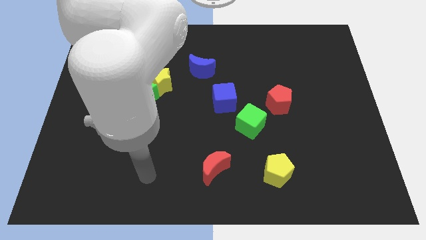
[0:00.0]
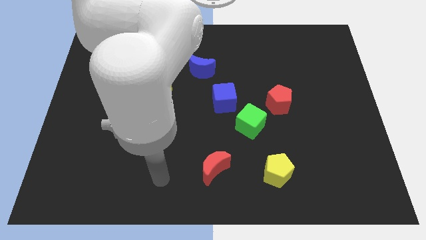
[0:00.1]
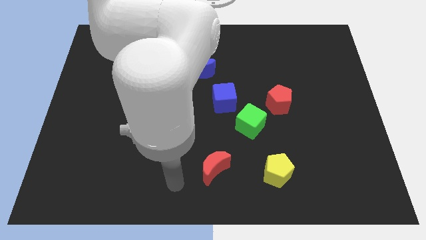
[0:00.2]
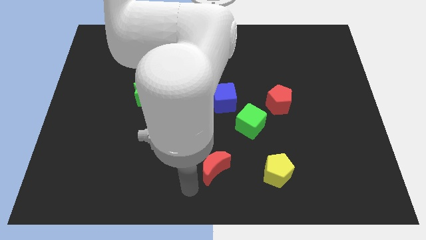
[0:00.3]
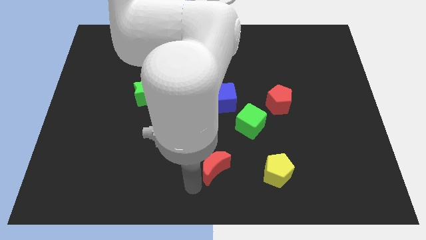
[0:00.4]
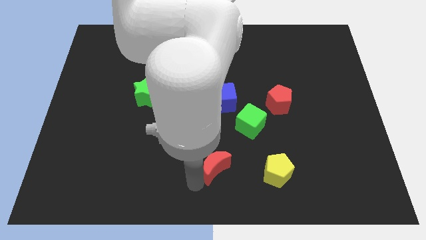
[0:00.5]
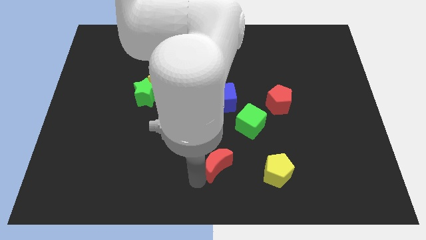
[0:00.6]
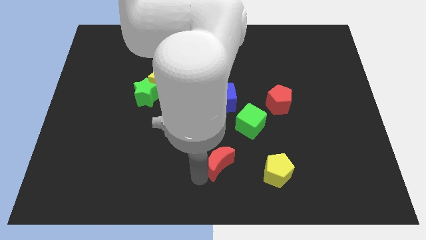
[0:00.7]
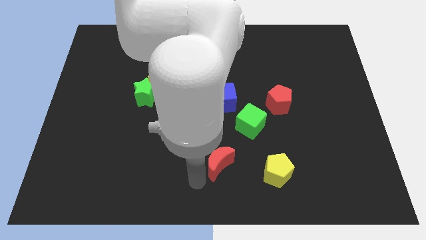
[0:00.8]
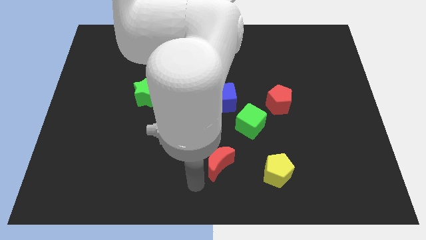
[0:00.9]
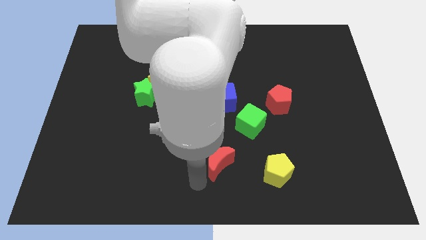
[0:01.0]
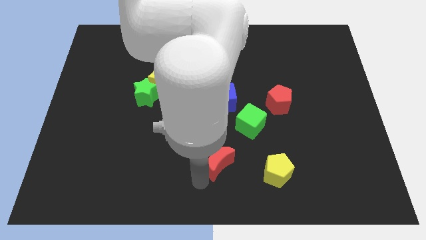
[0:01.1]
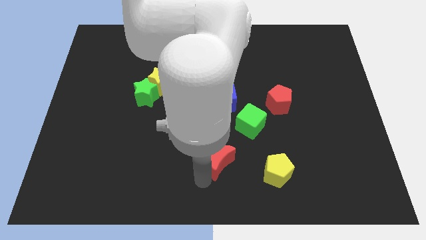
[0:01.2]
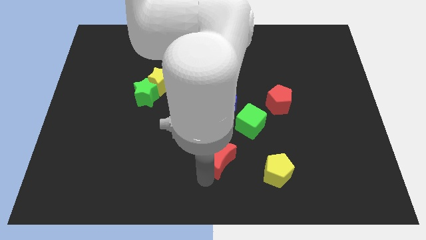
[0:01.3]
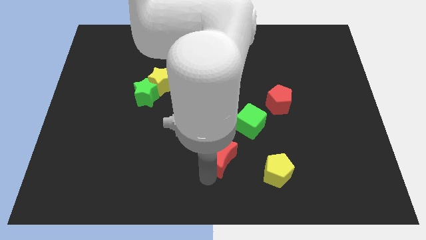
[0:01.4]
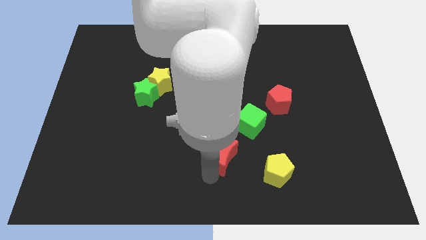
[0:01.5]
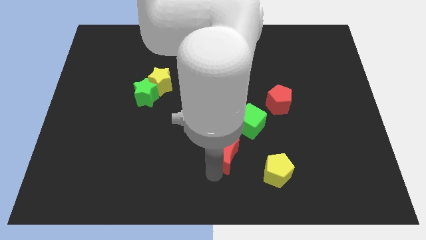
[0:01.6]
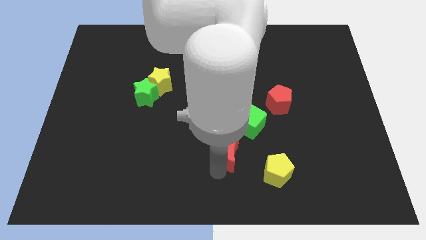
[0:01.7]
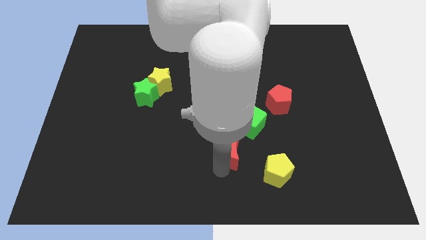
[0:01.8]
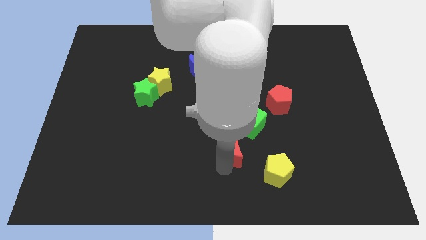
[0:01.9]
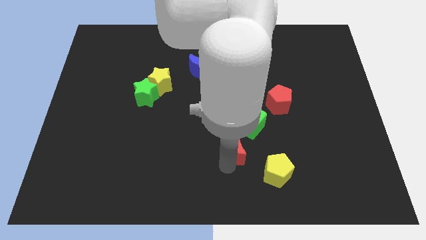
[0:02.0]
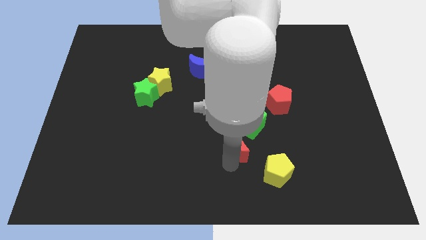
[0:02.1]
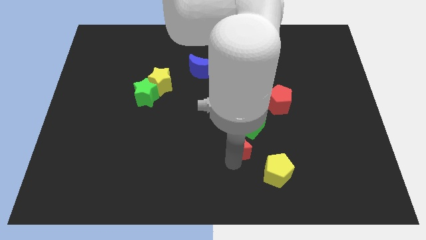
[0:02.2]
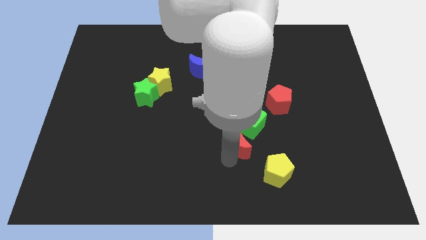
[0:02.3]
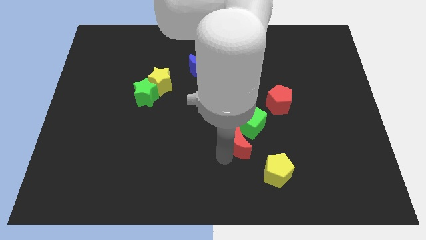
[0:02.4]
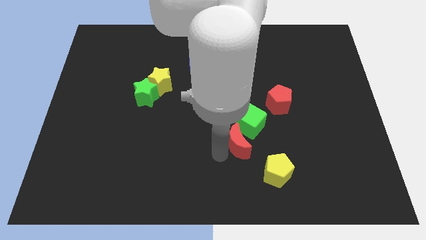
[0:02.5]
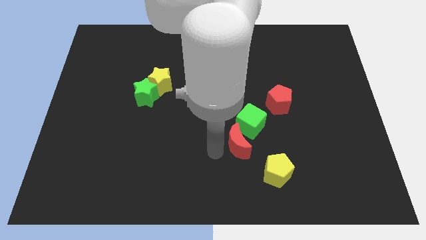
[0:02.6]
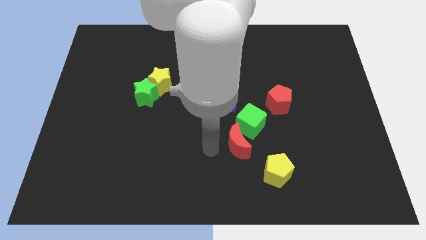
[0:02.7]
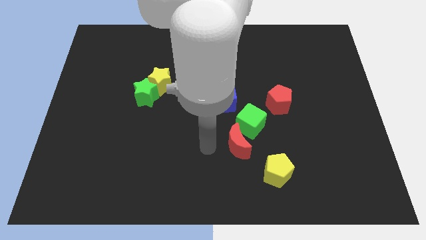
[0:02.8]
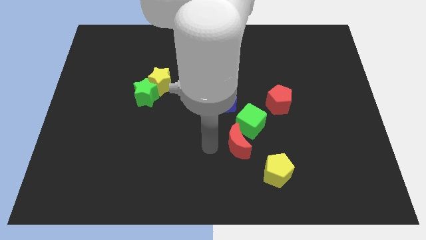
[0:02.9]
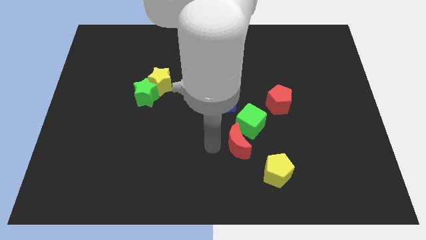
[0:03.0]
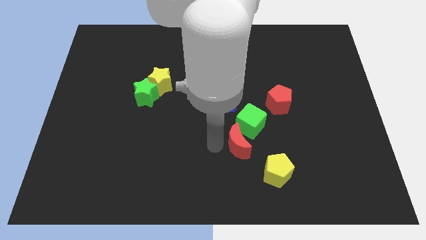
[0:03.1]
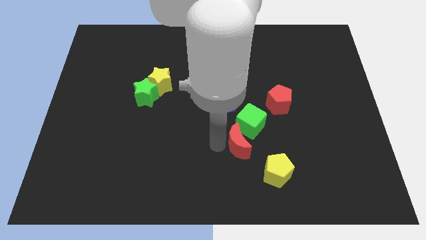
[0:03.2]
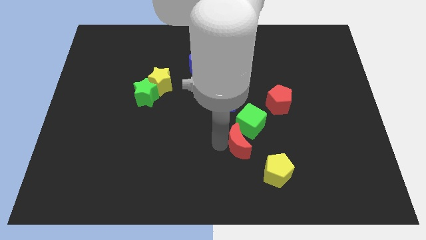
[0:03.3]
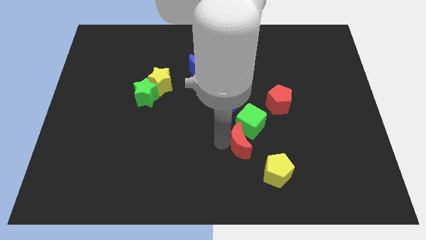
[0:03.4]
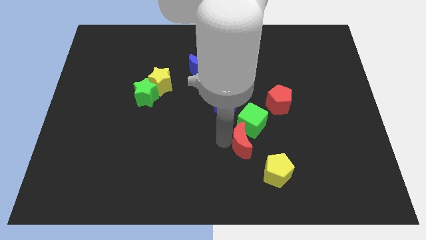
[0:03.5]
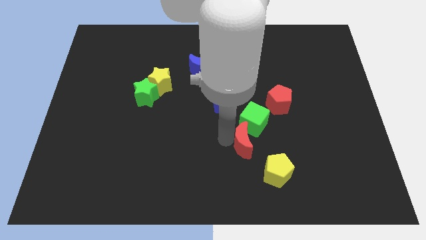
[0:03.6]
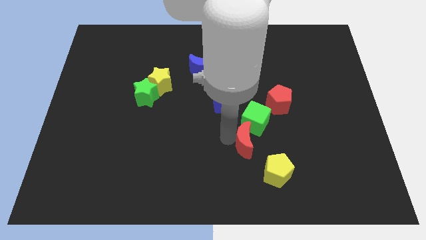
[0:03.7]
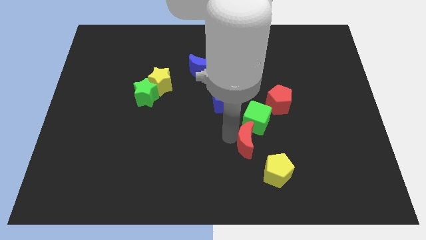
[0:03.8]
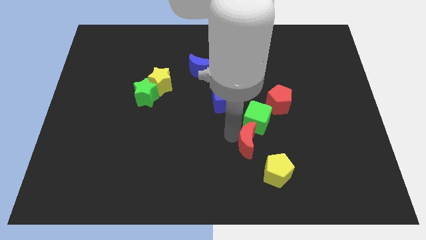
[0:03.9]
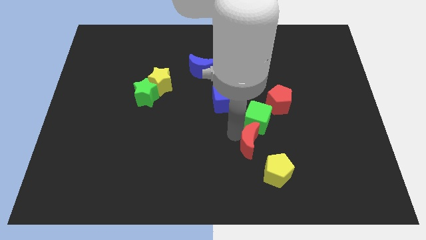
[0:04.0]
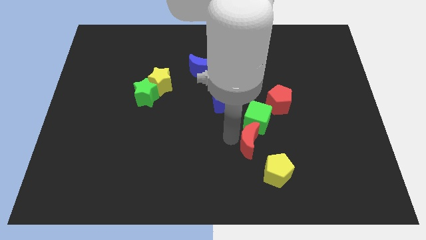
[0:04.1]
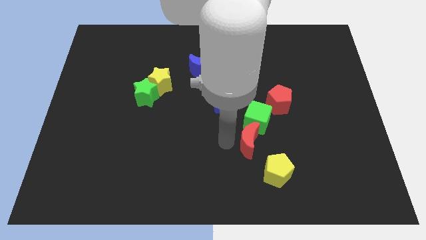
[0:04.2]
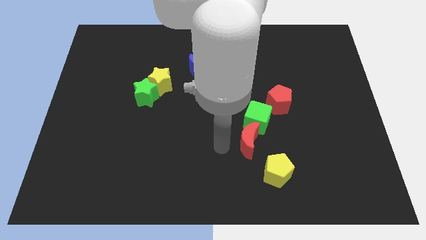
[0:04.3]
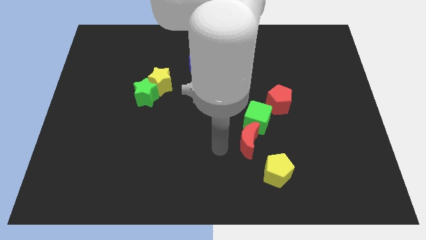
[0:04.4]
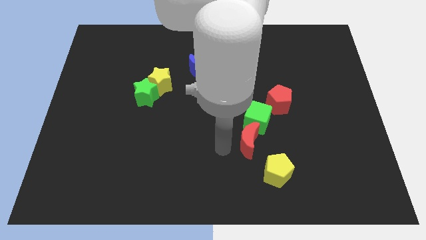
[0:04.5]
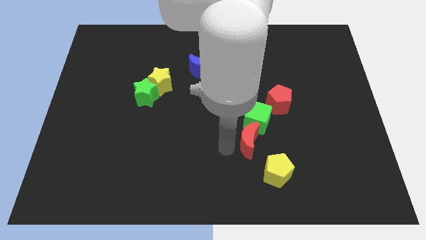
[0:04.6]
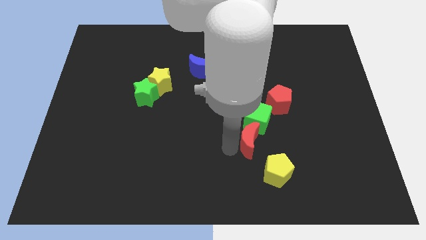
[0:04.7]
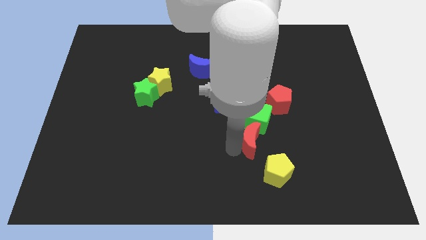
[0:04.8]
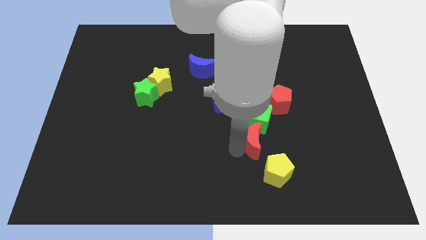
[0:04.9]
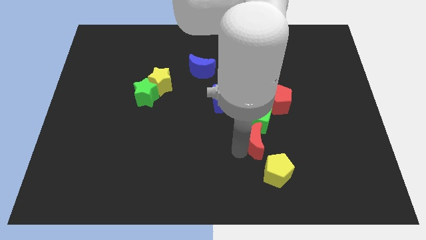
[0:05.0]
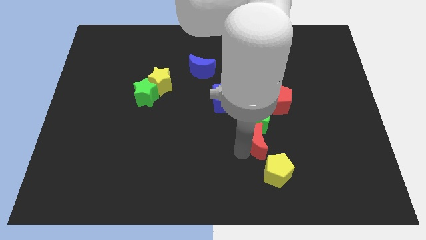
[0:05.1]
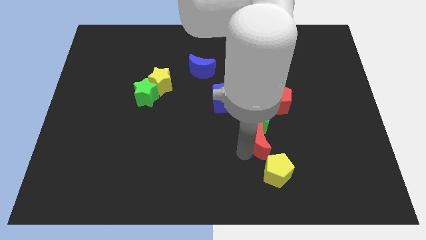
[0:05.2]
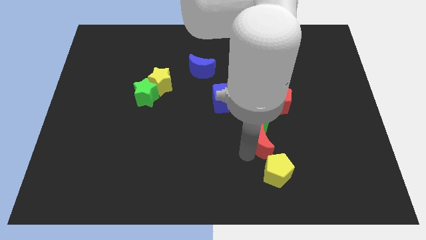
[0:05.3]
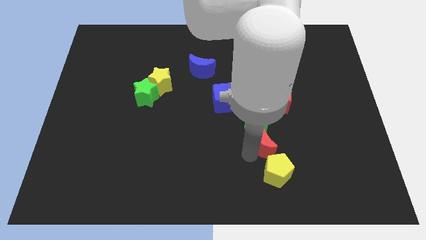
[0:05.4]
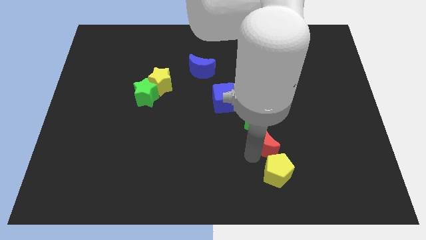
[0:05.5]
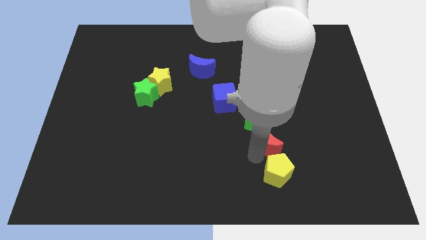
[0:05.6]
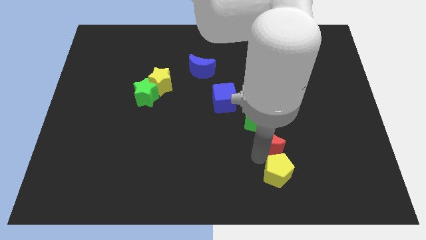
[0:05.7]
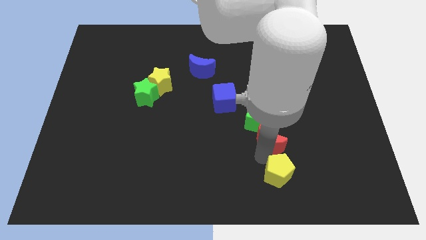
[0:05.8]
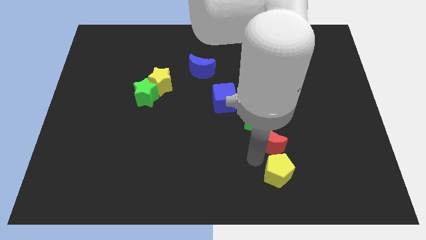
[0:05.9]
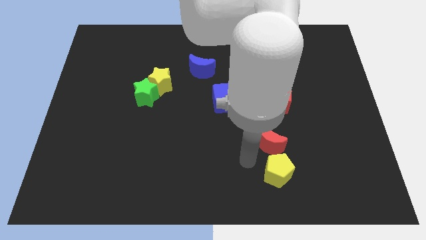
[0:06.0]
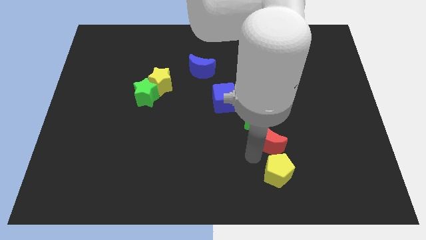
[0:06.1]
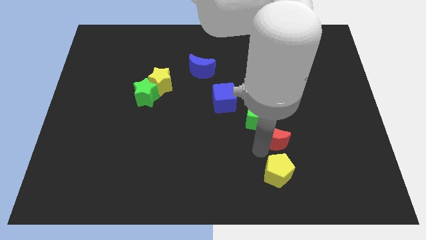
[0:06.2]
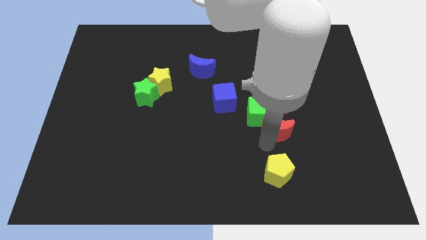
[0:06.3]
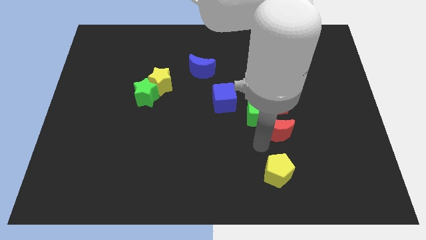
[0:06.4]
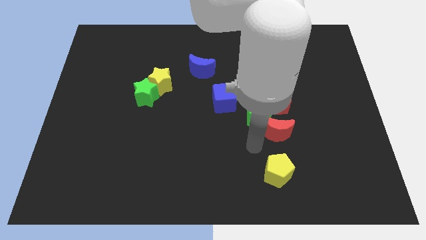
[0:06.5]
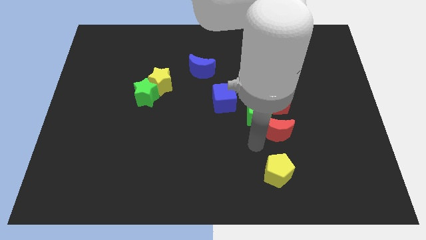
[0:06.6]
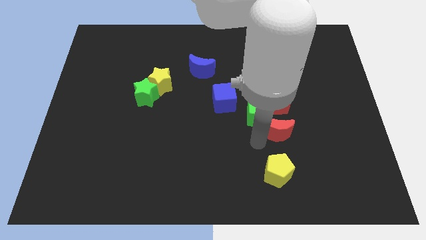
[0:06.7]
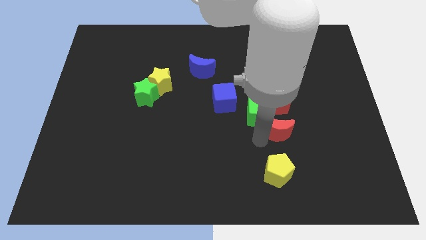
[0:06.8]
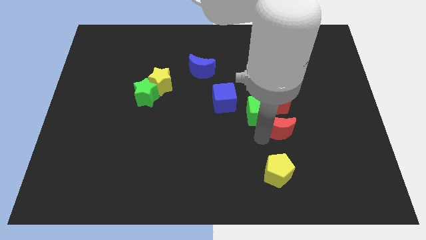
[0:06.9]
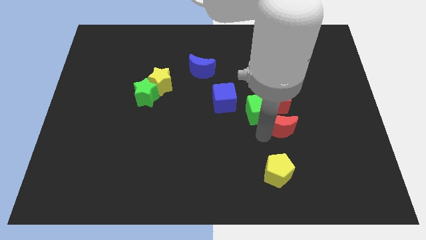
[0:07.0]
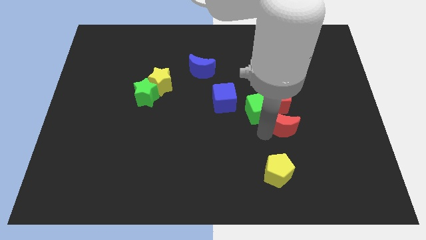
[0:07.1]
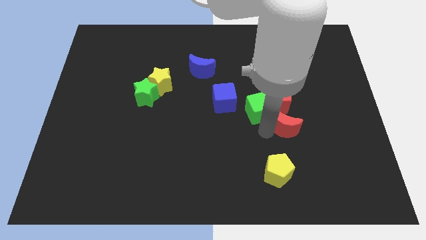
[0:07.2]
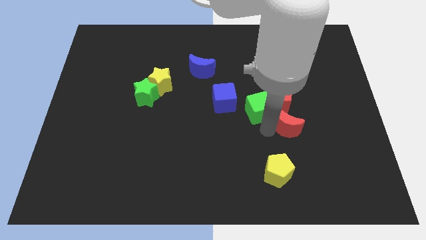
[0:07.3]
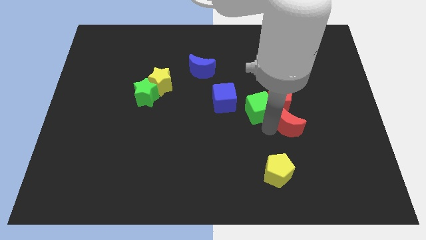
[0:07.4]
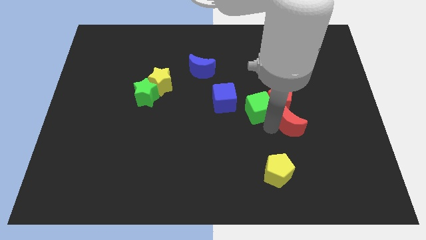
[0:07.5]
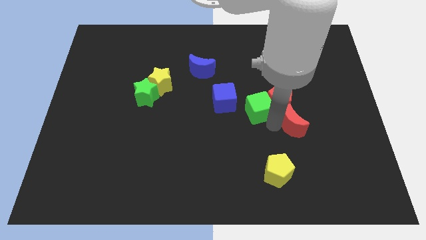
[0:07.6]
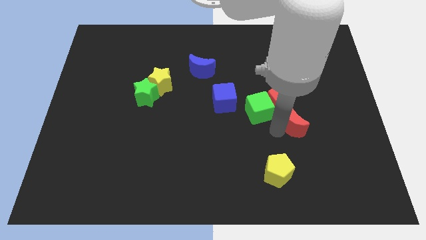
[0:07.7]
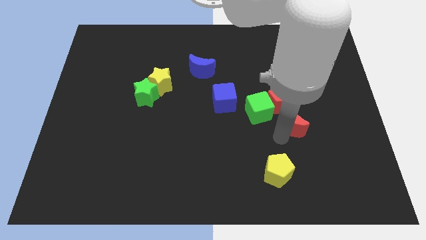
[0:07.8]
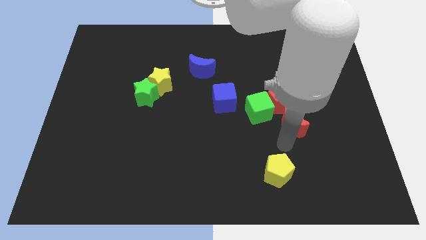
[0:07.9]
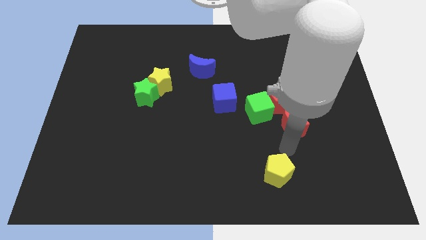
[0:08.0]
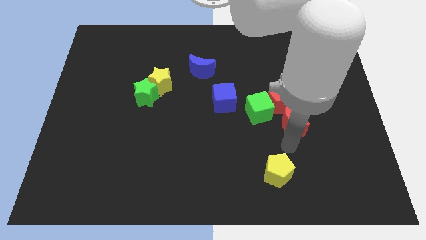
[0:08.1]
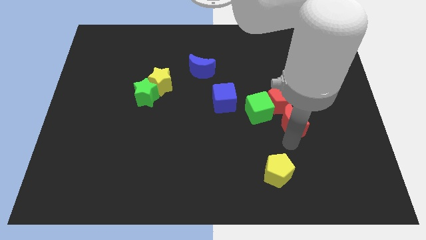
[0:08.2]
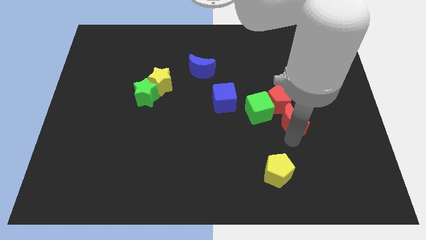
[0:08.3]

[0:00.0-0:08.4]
push the red moon upwards and to the right

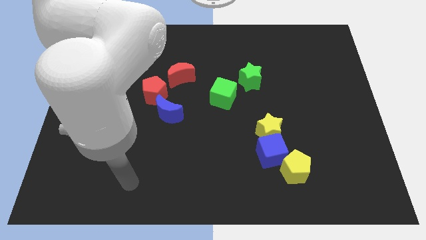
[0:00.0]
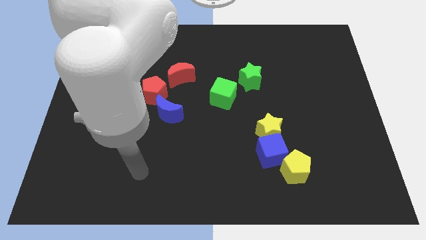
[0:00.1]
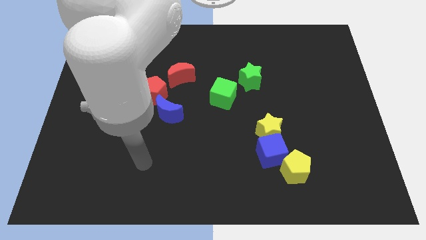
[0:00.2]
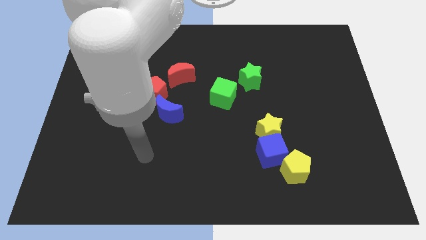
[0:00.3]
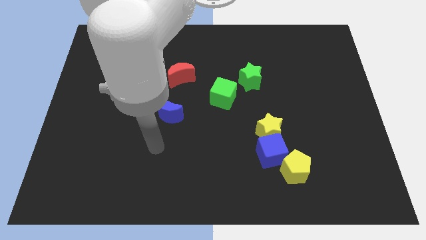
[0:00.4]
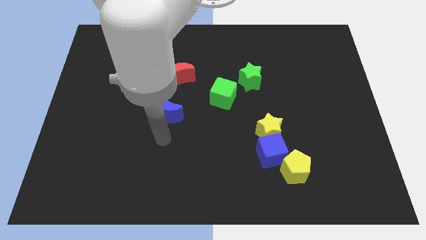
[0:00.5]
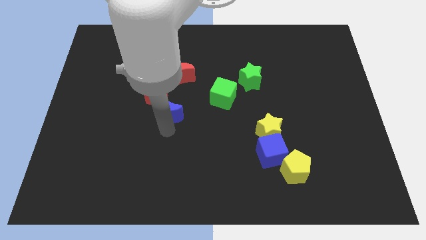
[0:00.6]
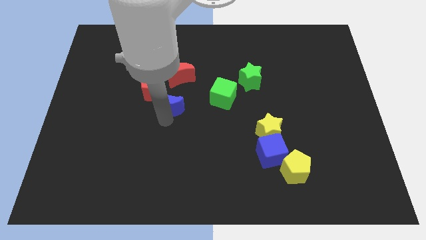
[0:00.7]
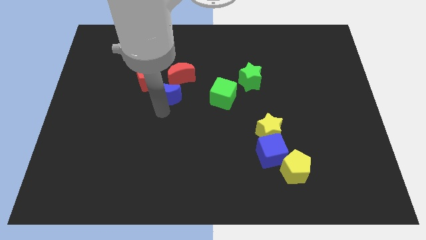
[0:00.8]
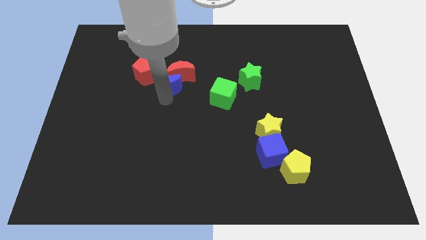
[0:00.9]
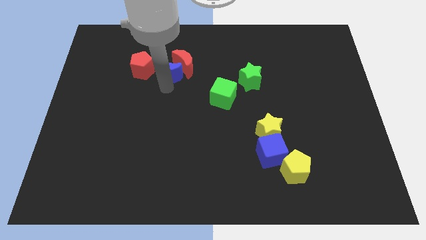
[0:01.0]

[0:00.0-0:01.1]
slide the red pentagon somewhat upwards and to the left
